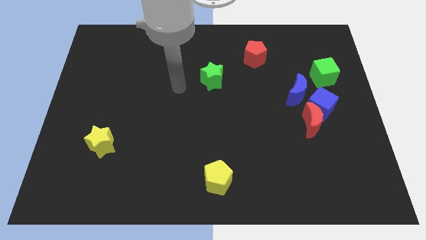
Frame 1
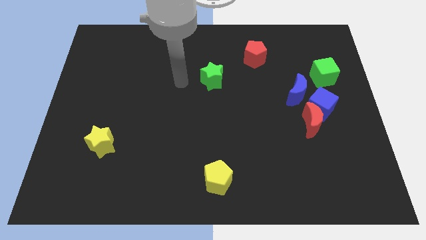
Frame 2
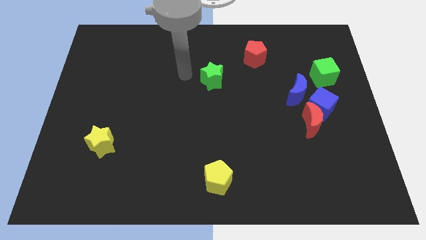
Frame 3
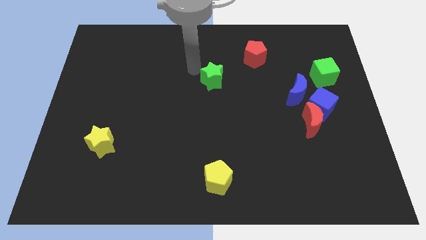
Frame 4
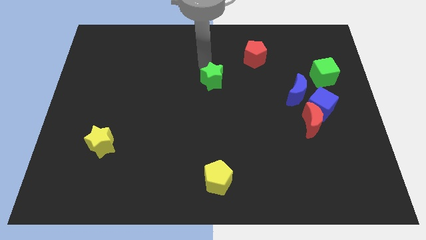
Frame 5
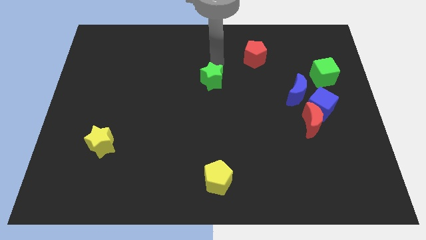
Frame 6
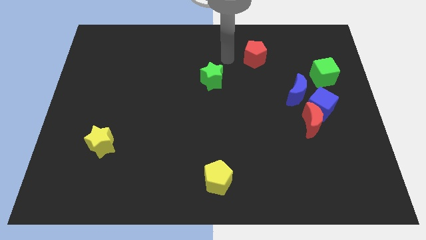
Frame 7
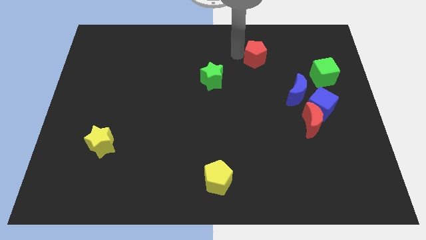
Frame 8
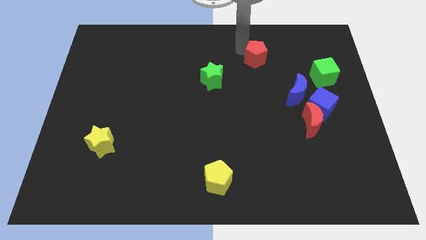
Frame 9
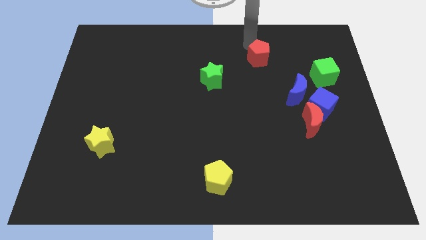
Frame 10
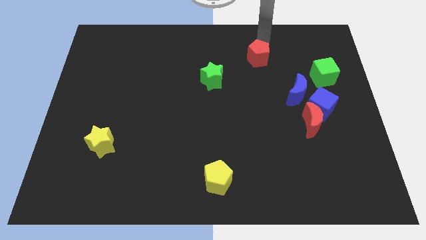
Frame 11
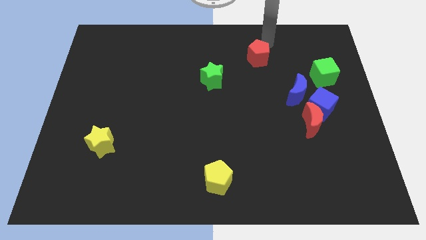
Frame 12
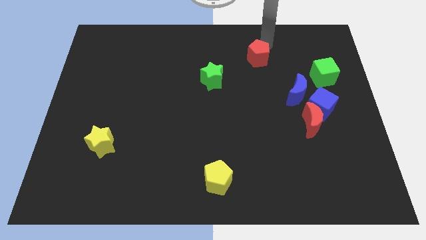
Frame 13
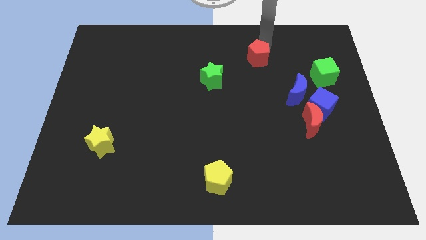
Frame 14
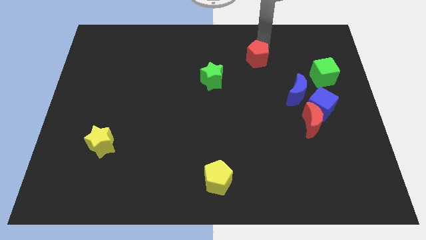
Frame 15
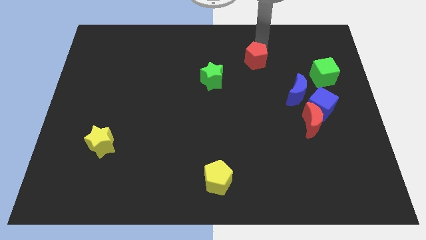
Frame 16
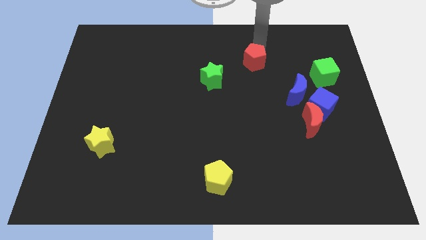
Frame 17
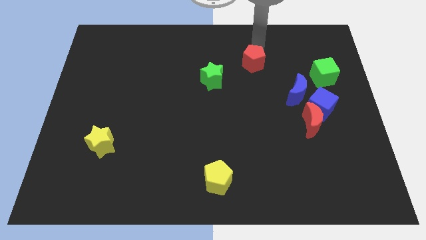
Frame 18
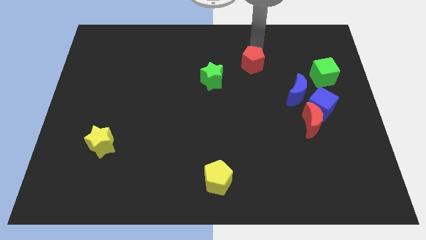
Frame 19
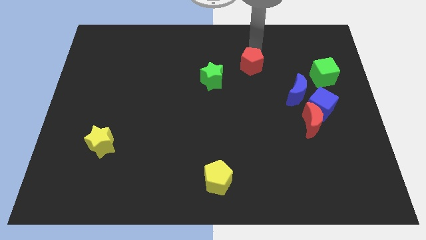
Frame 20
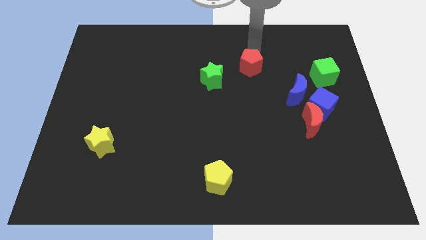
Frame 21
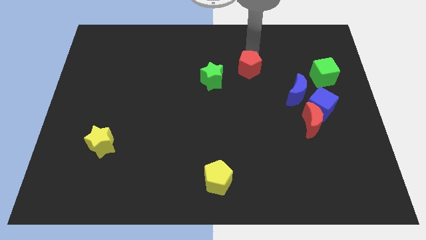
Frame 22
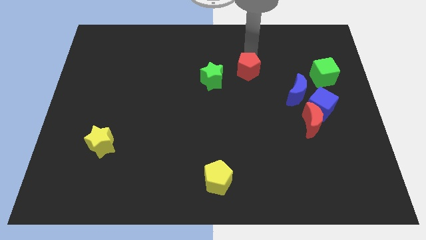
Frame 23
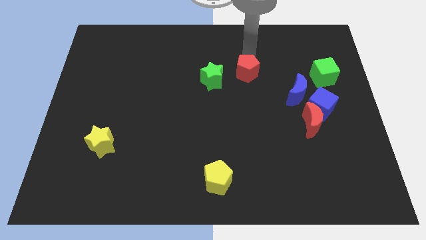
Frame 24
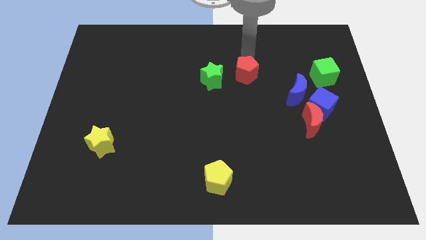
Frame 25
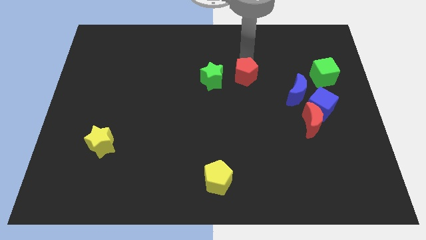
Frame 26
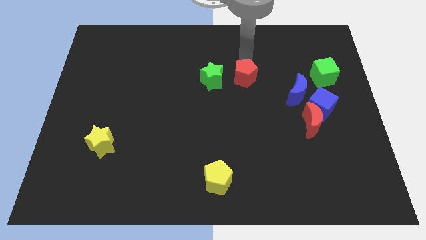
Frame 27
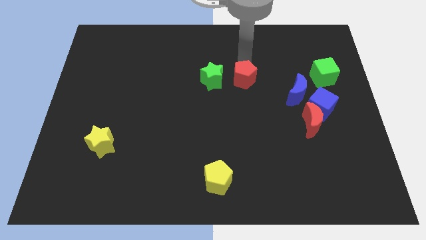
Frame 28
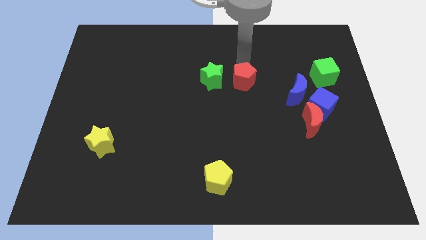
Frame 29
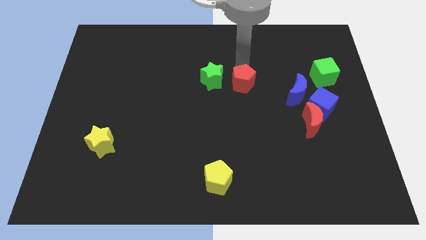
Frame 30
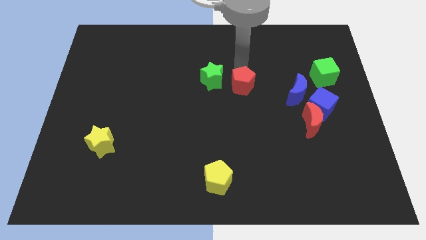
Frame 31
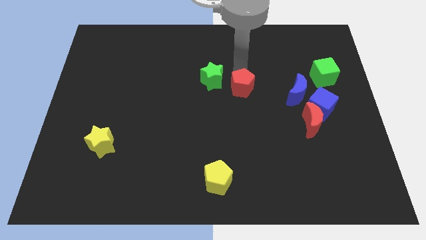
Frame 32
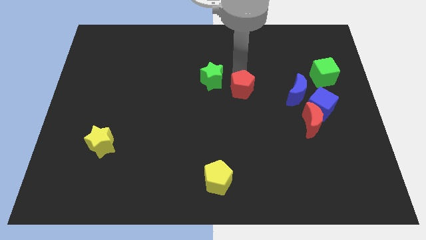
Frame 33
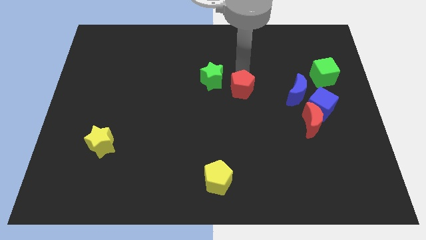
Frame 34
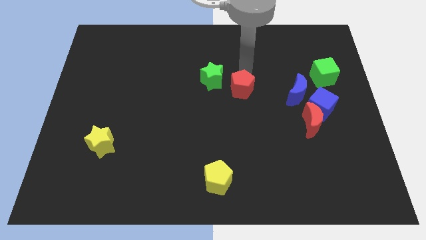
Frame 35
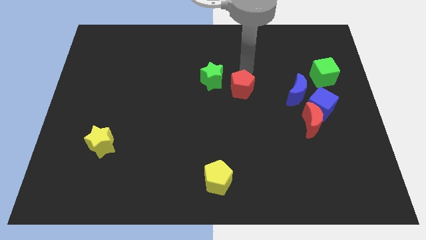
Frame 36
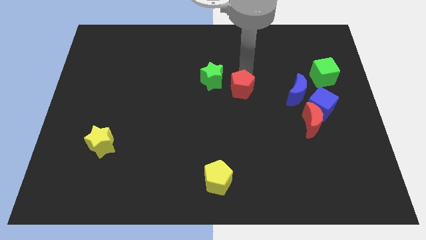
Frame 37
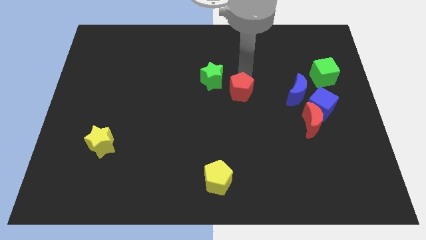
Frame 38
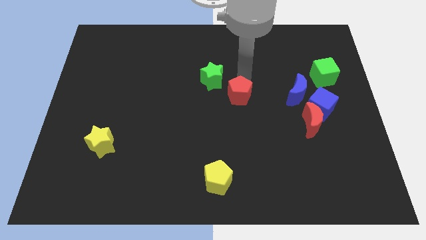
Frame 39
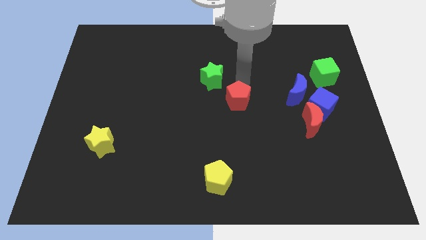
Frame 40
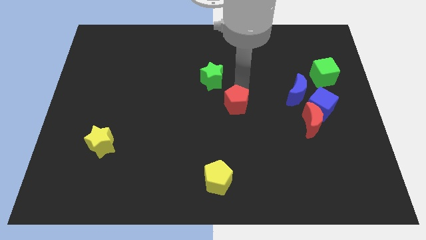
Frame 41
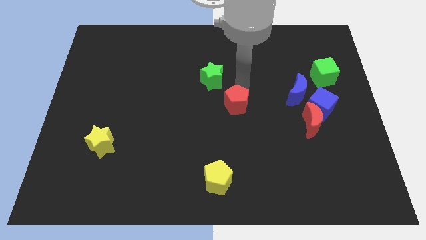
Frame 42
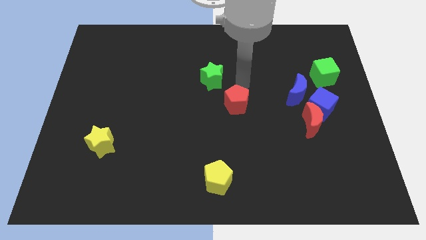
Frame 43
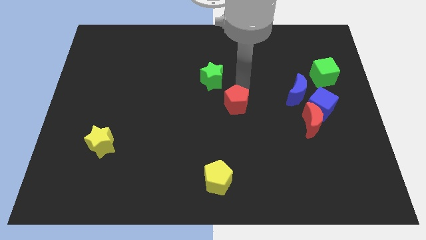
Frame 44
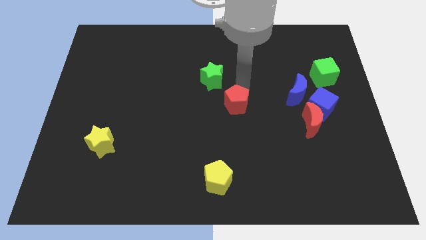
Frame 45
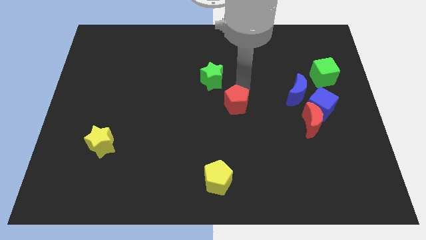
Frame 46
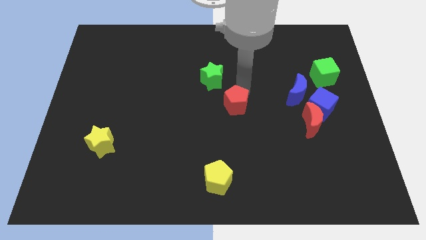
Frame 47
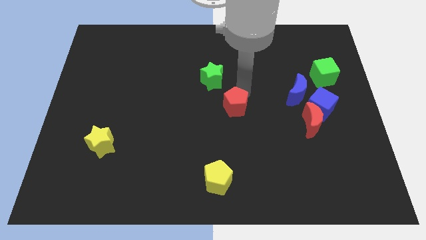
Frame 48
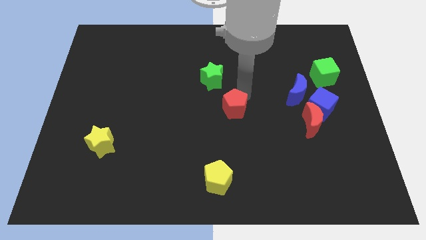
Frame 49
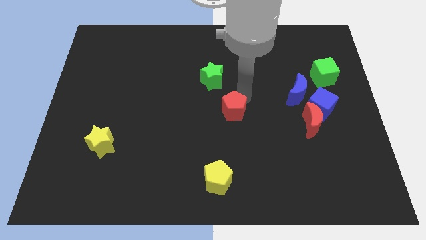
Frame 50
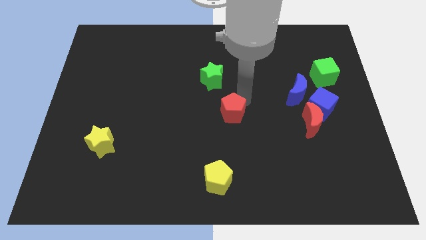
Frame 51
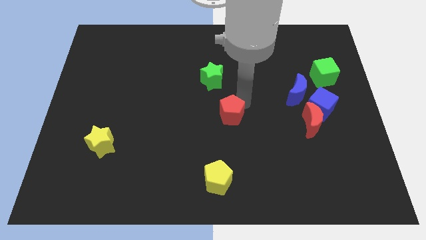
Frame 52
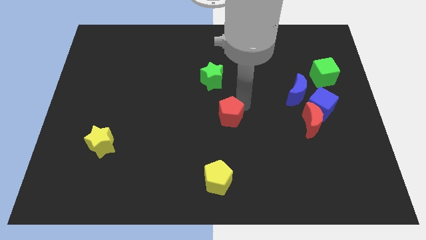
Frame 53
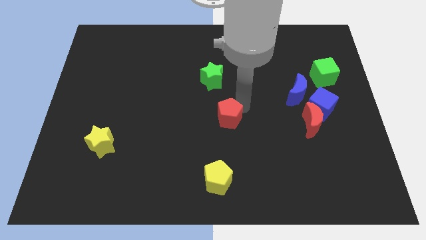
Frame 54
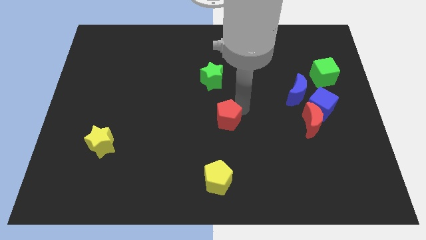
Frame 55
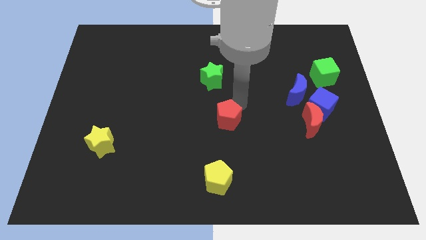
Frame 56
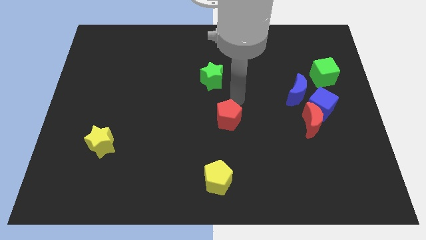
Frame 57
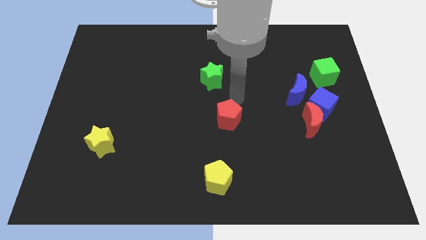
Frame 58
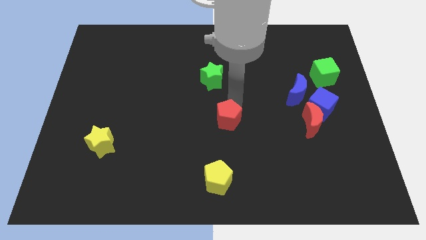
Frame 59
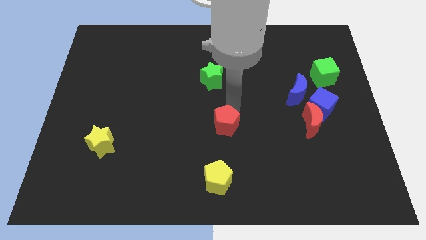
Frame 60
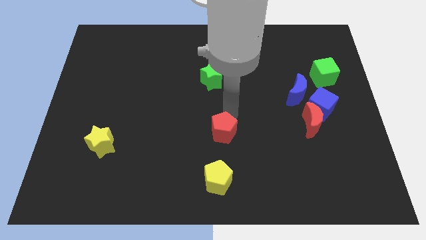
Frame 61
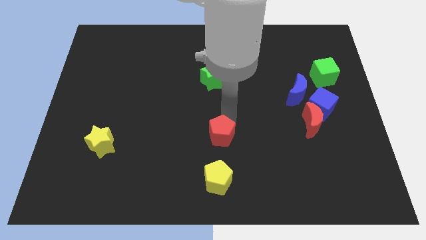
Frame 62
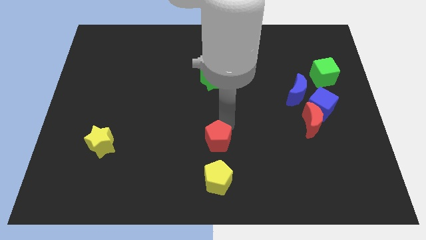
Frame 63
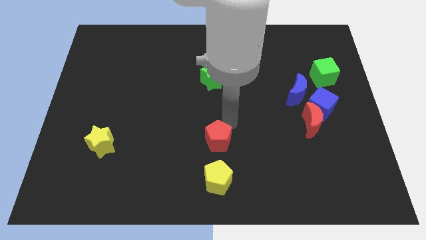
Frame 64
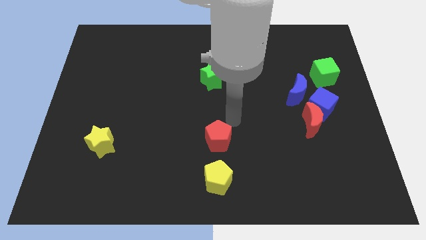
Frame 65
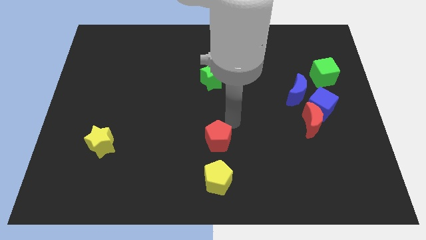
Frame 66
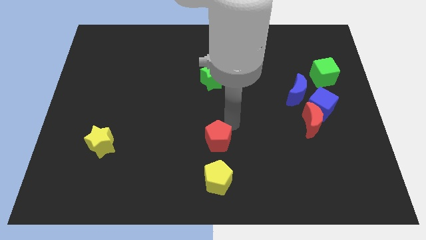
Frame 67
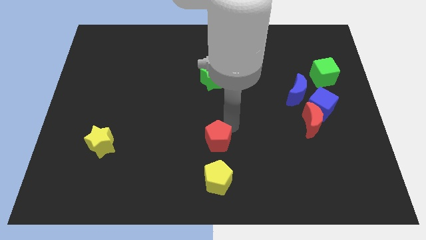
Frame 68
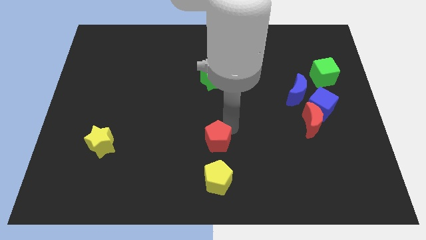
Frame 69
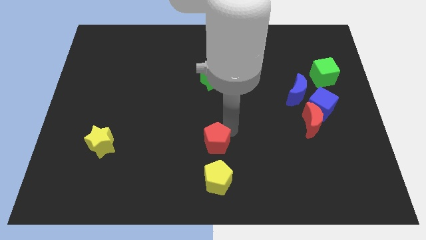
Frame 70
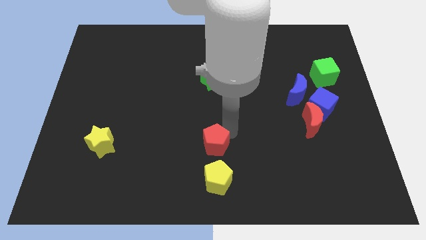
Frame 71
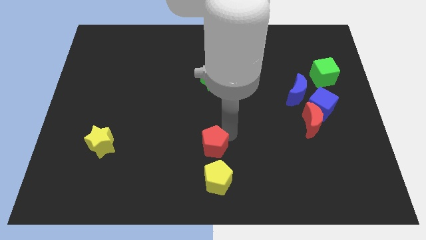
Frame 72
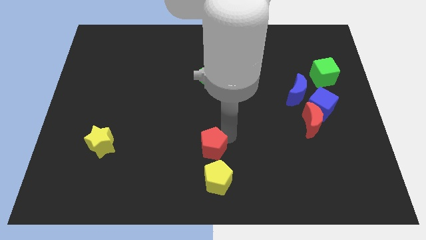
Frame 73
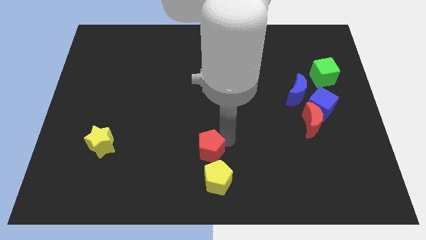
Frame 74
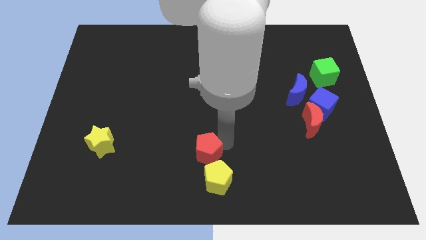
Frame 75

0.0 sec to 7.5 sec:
move the red pentagon to the bottom side
